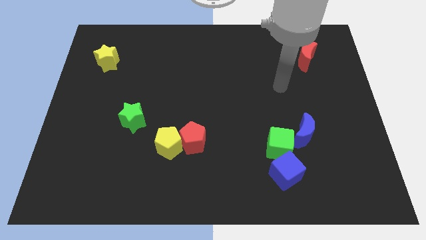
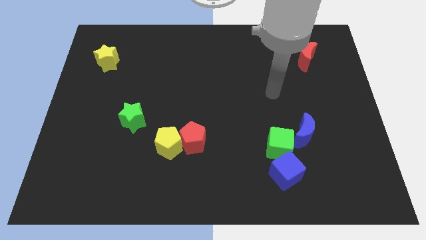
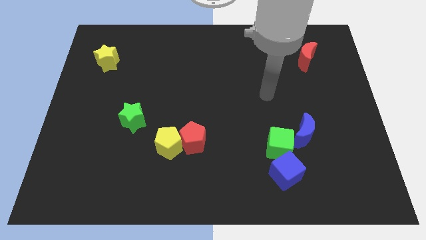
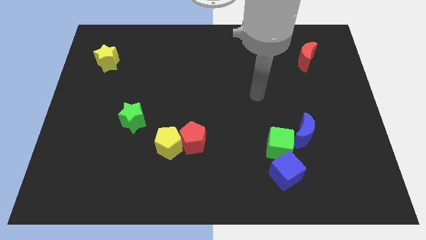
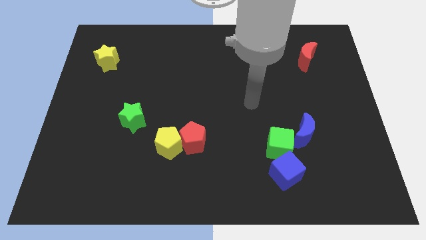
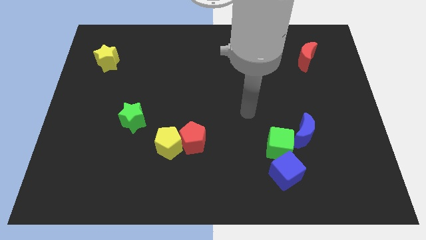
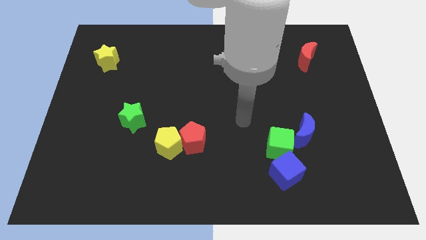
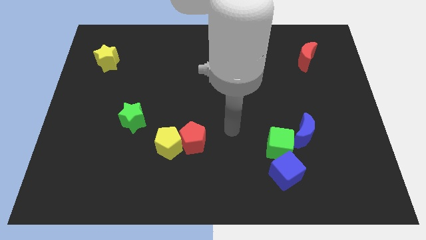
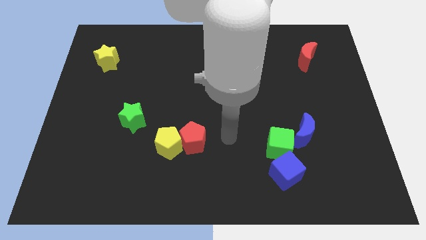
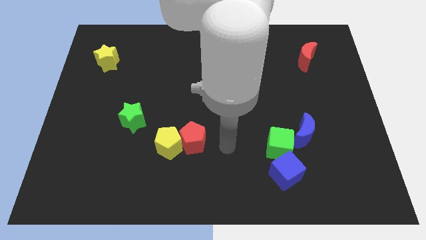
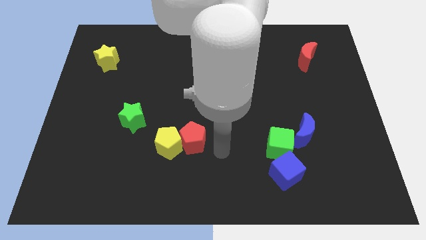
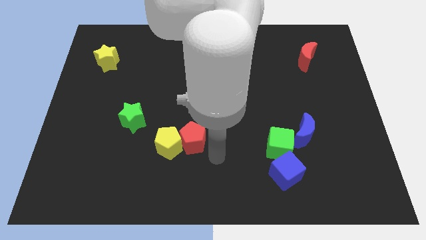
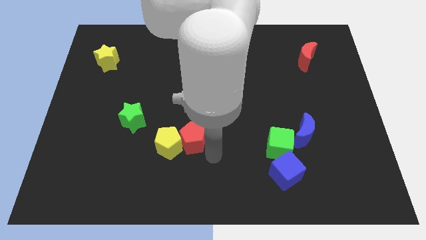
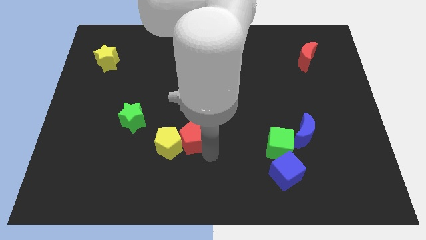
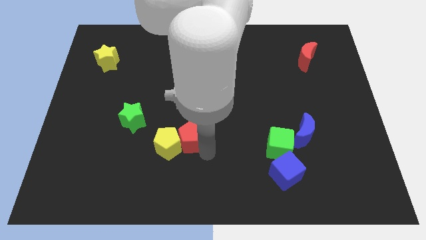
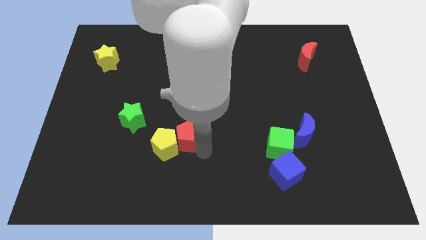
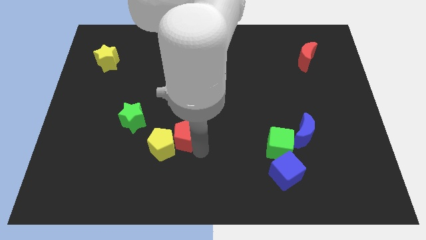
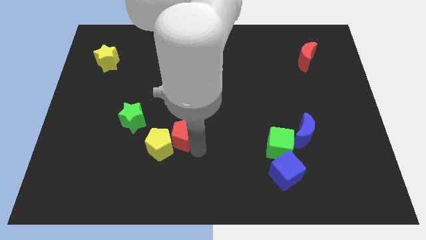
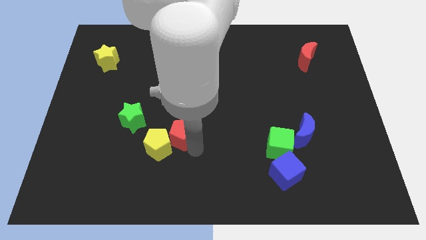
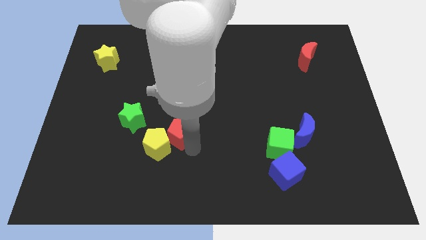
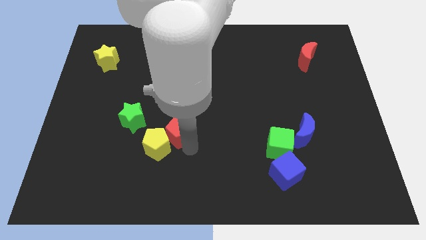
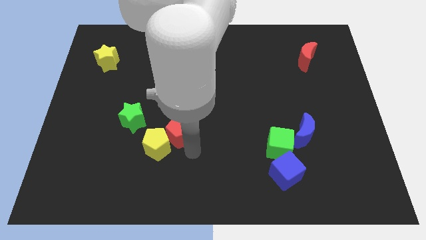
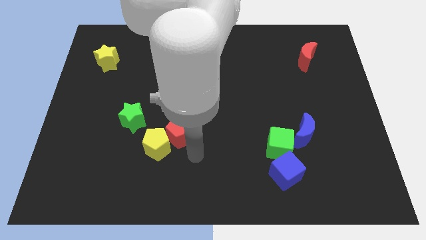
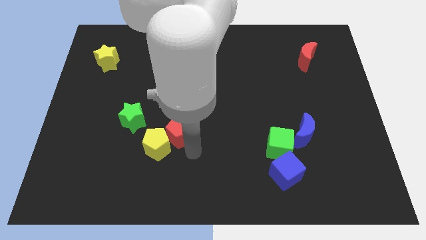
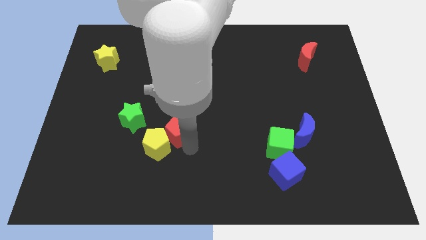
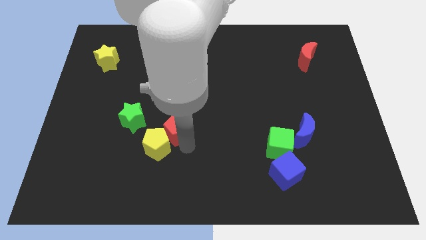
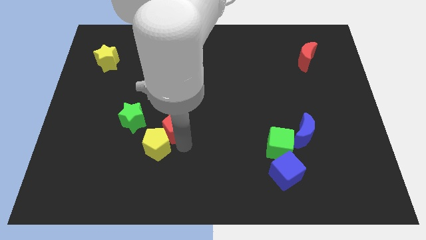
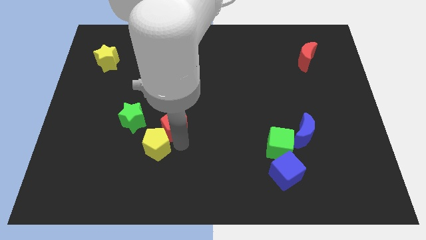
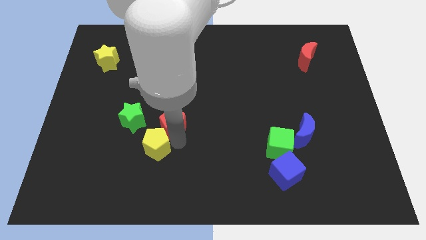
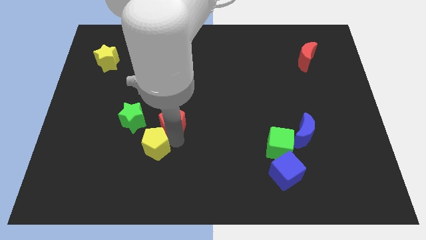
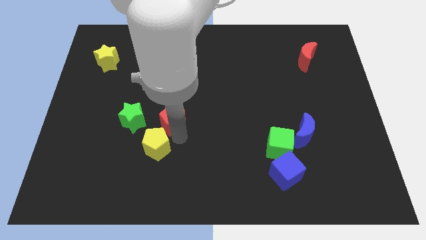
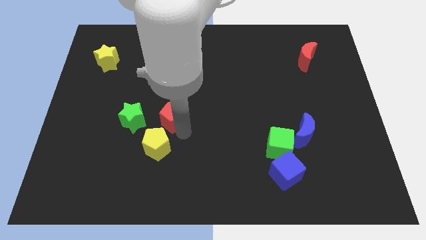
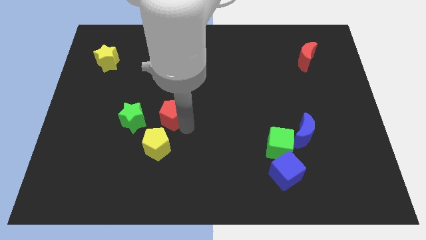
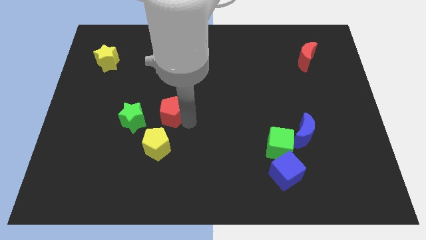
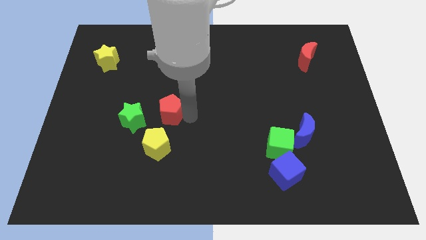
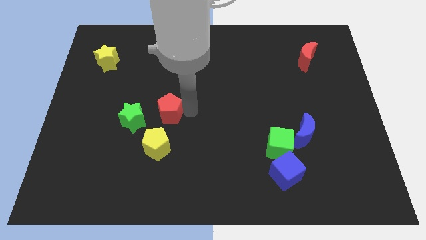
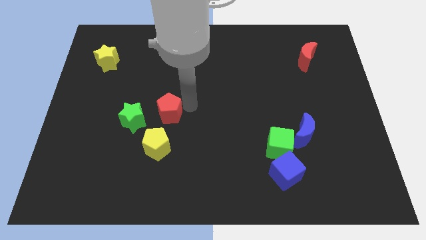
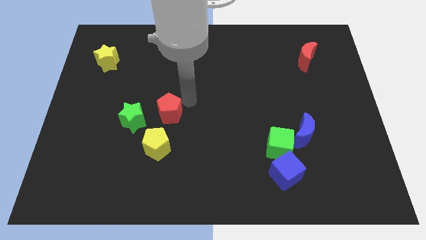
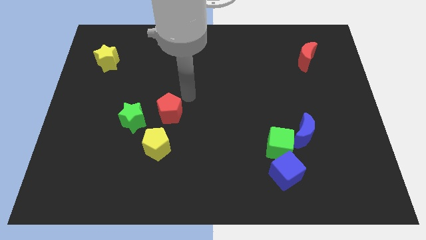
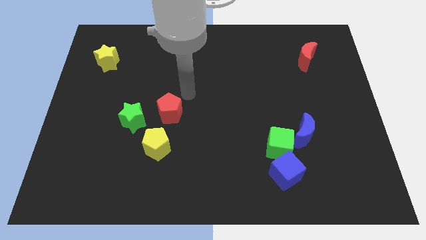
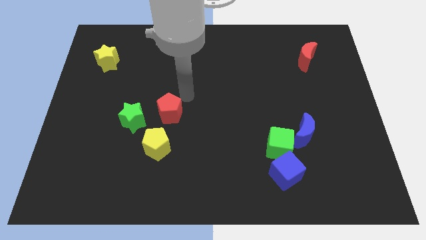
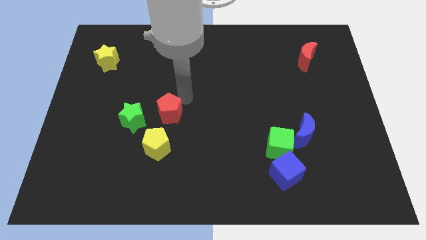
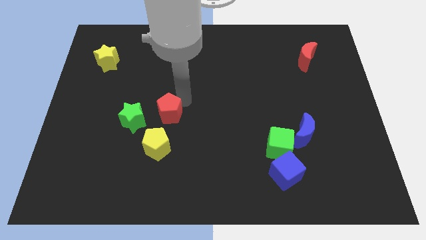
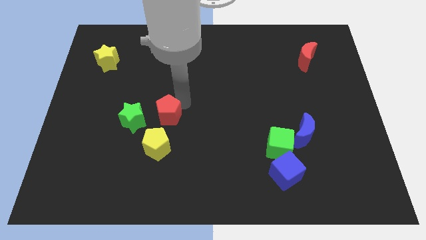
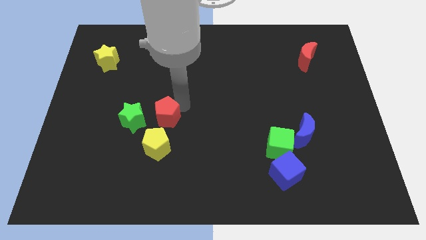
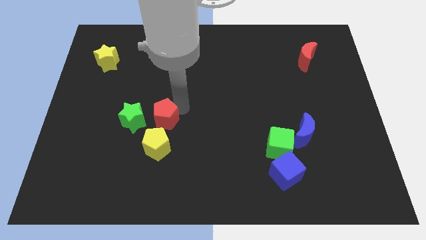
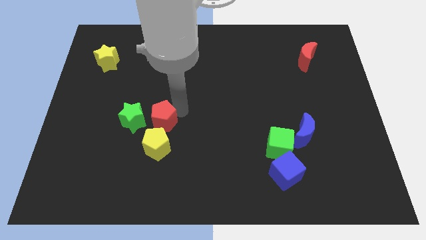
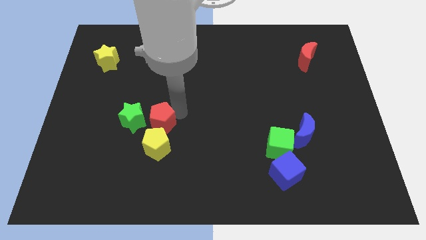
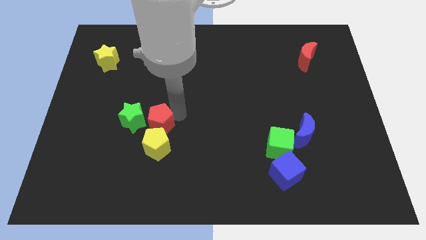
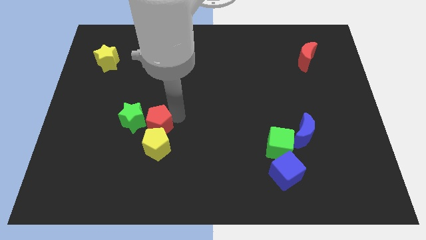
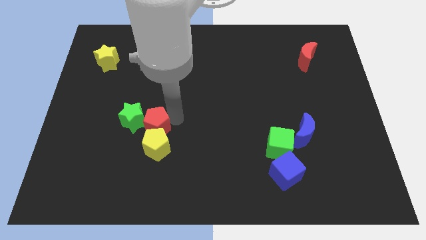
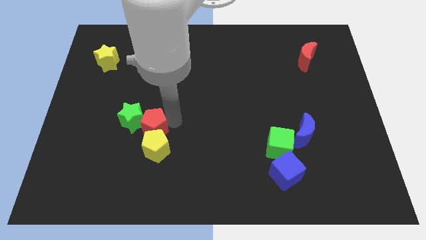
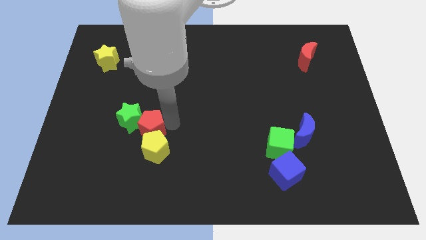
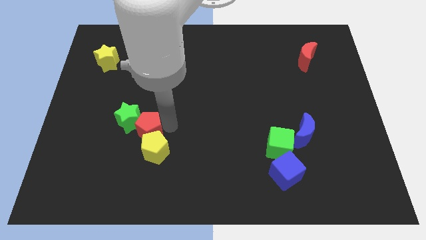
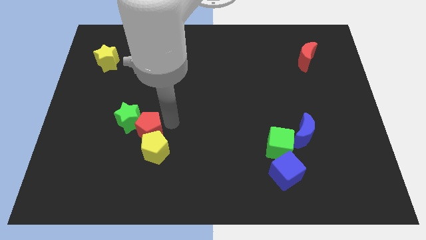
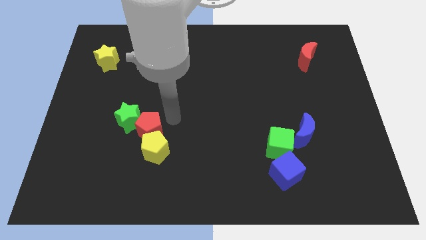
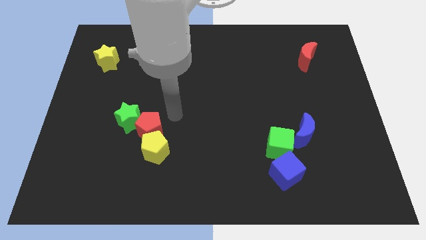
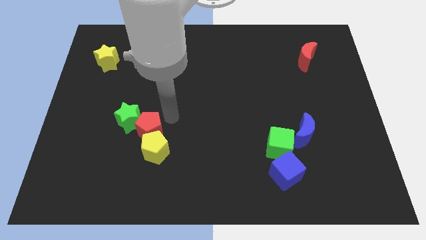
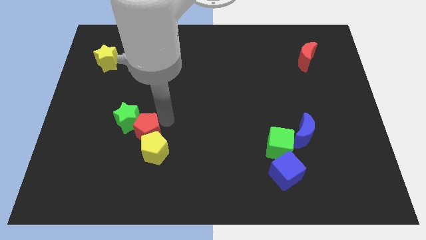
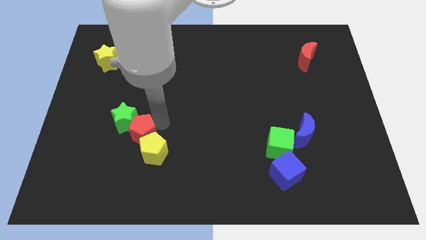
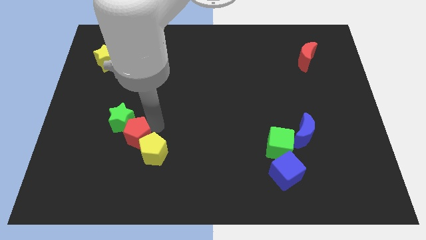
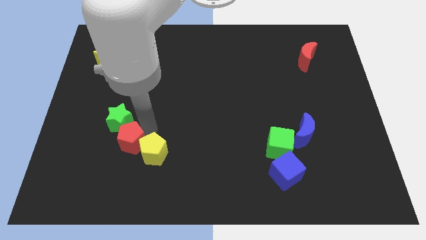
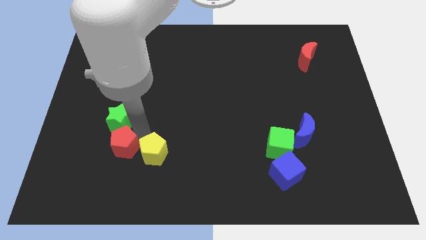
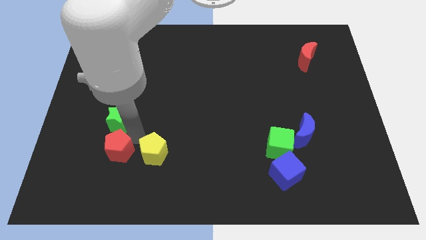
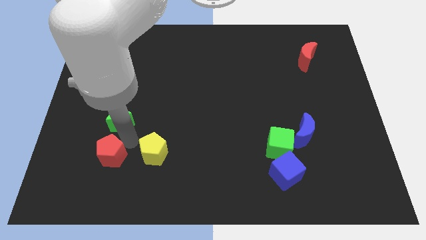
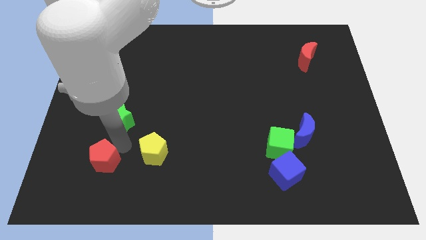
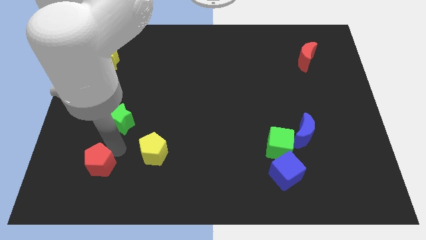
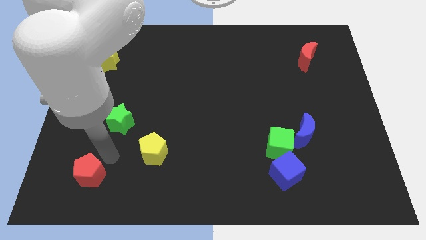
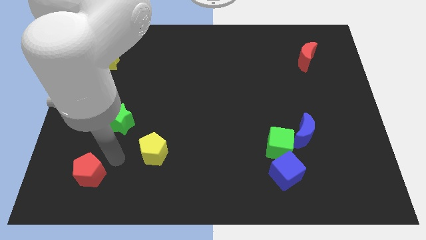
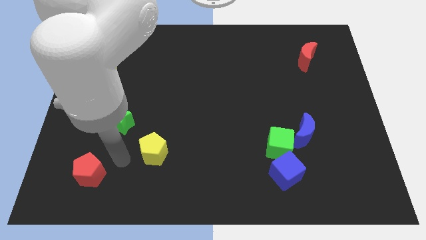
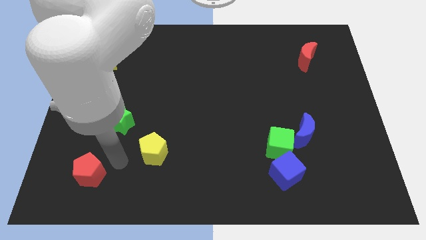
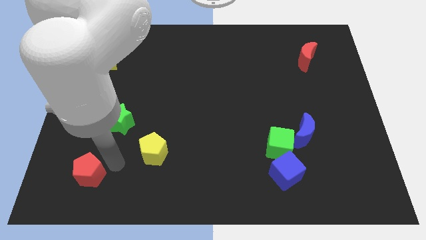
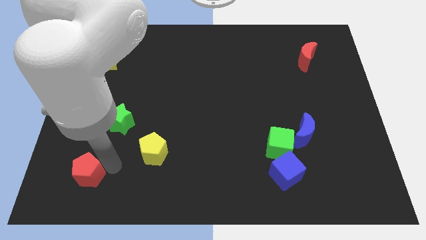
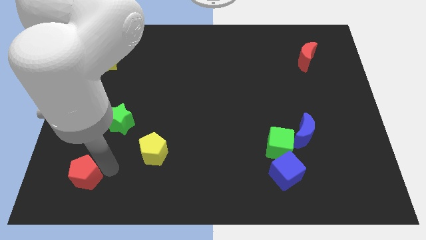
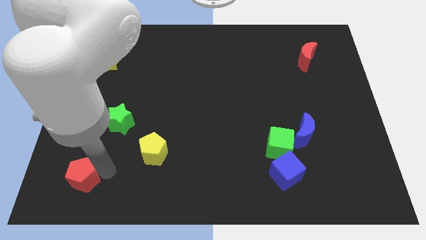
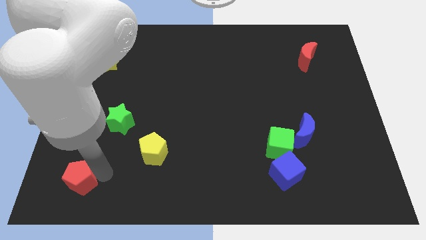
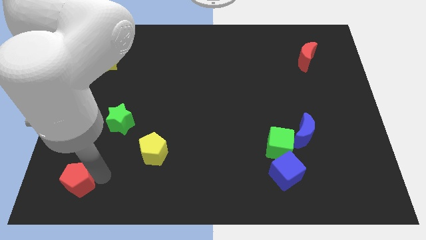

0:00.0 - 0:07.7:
move the red pentagon to the lower left corner
